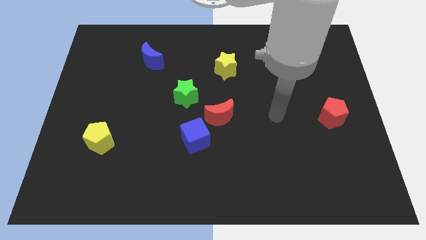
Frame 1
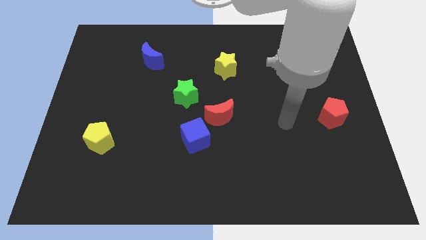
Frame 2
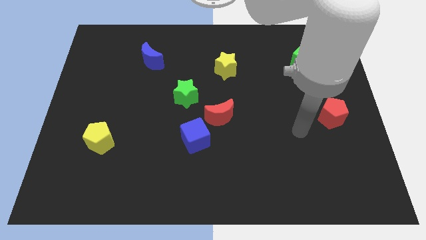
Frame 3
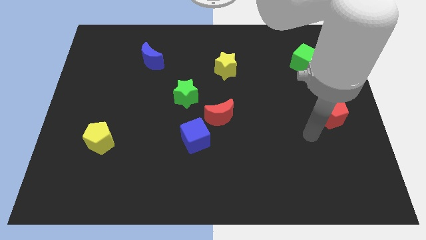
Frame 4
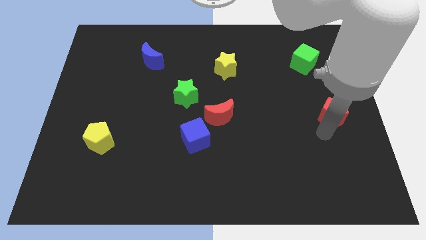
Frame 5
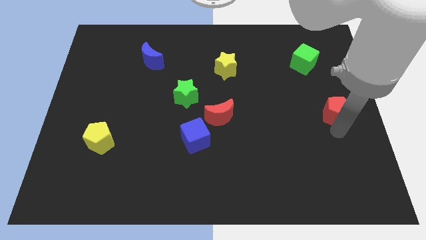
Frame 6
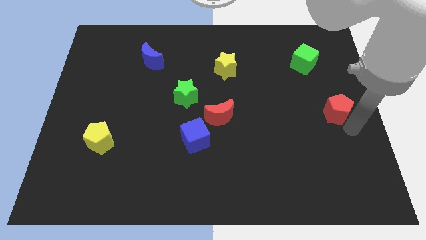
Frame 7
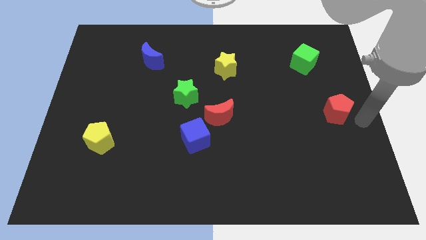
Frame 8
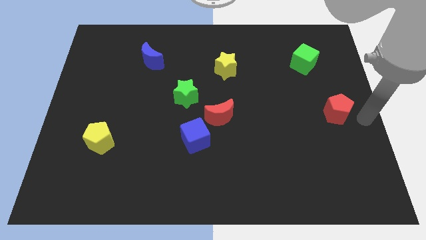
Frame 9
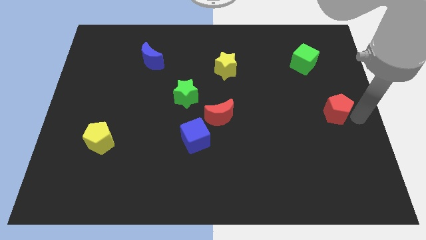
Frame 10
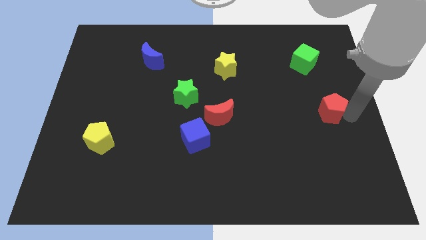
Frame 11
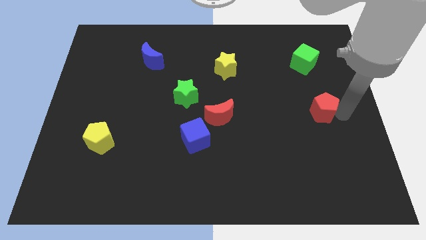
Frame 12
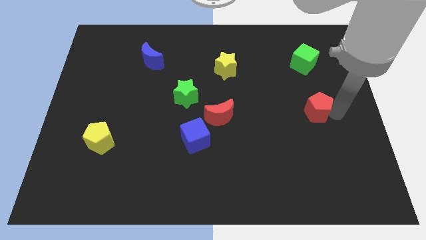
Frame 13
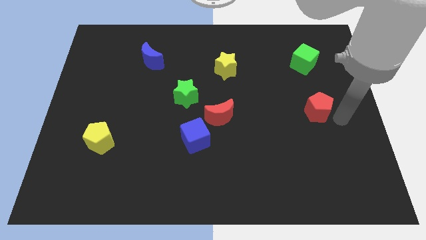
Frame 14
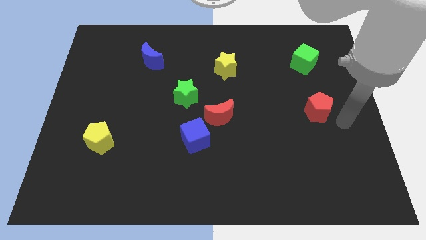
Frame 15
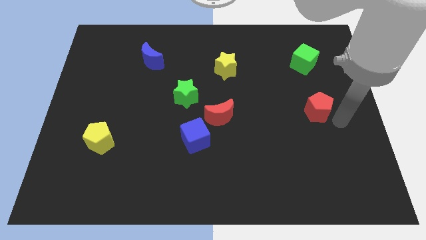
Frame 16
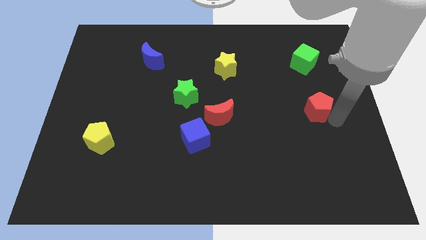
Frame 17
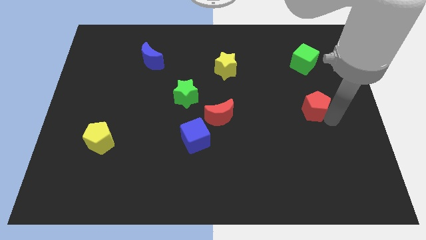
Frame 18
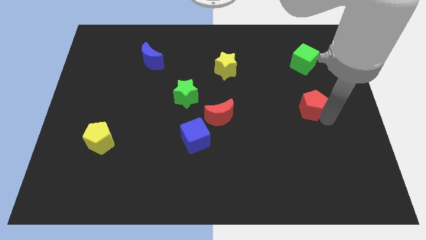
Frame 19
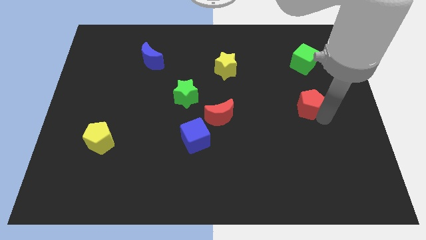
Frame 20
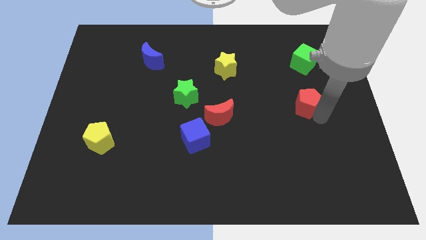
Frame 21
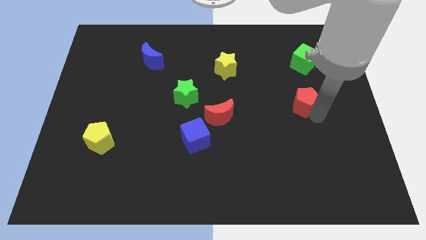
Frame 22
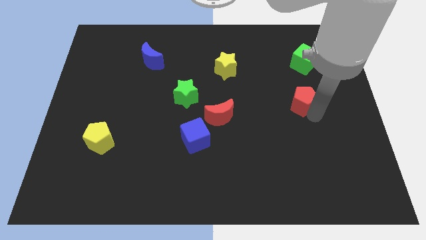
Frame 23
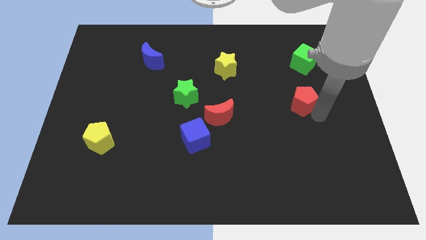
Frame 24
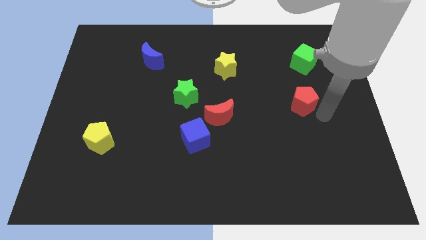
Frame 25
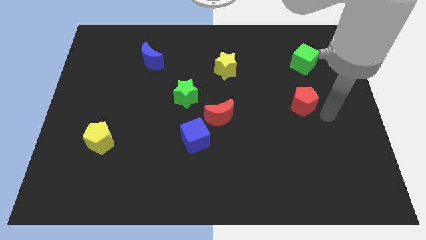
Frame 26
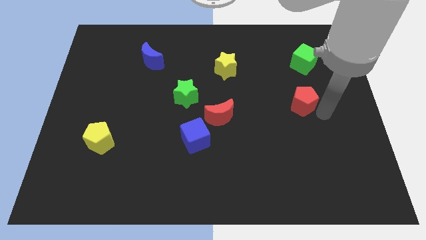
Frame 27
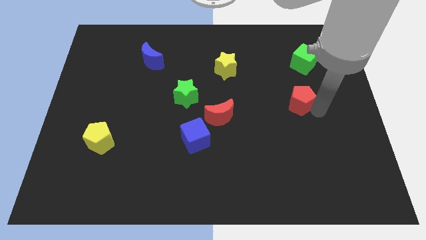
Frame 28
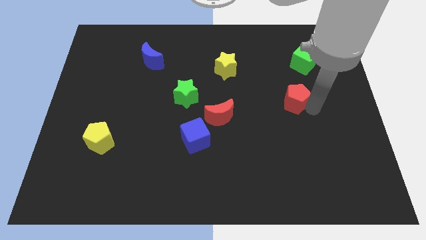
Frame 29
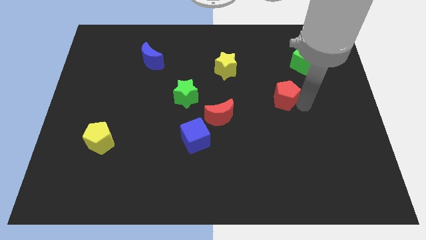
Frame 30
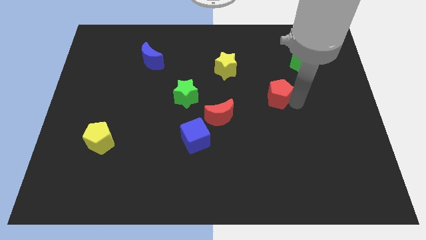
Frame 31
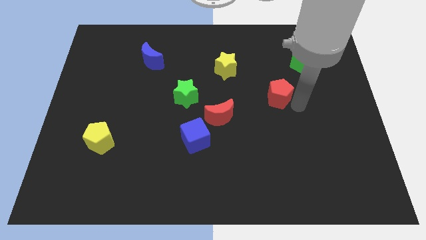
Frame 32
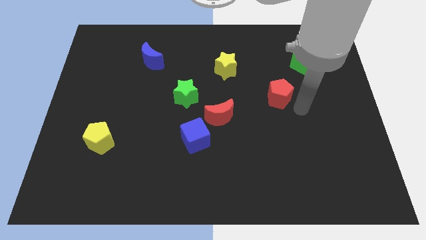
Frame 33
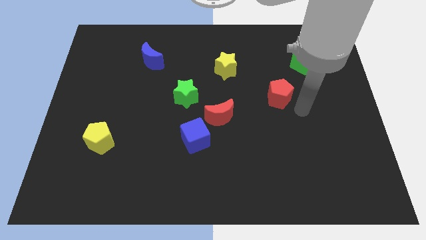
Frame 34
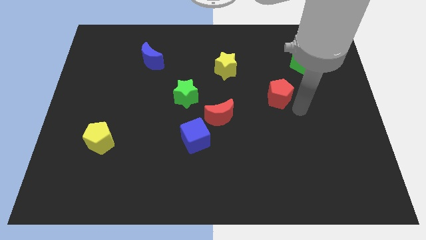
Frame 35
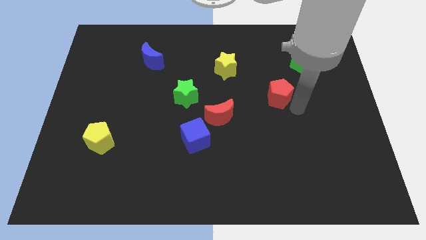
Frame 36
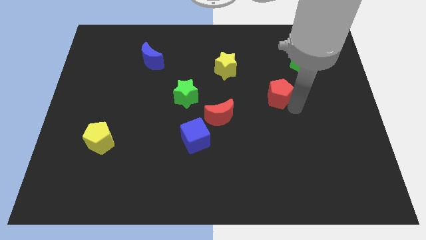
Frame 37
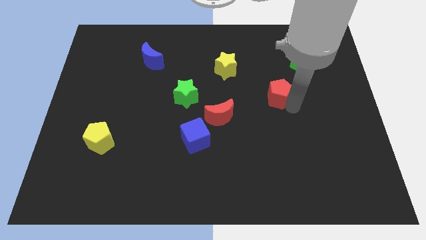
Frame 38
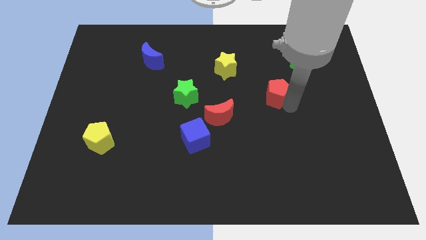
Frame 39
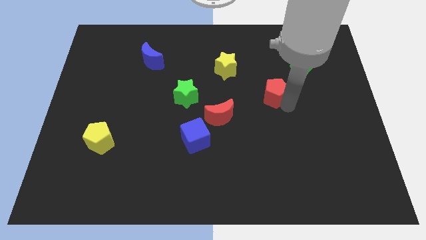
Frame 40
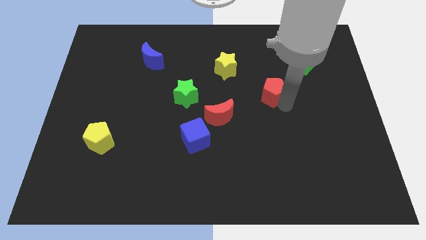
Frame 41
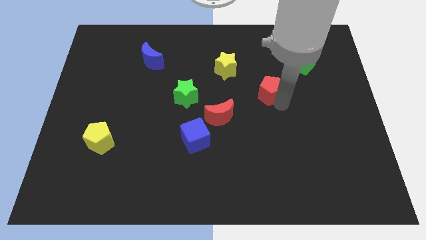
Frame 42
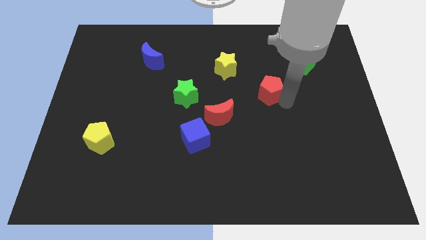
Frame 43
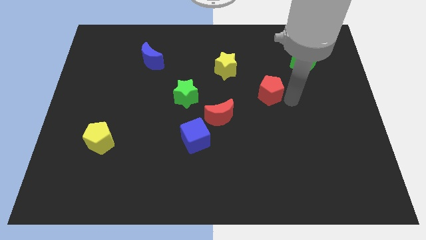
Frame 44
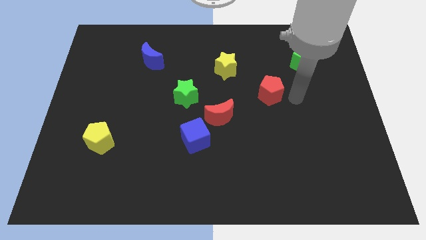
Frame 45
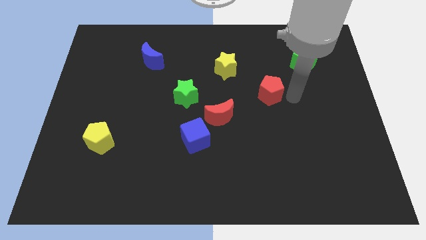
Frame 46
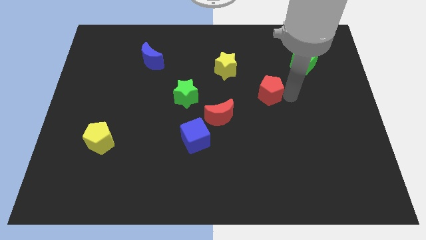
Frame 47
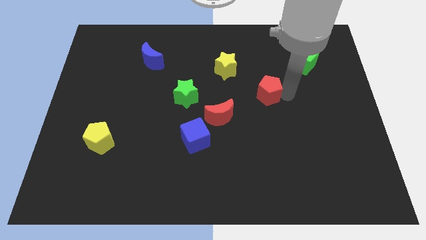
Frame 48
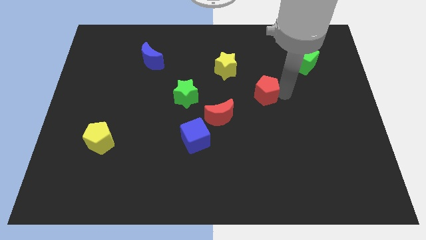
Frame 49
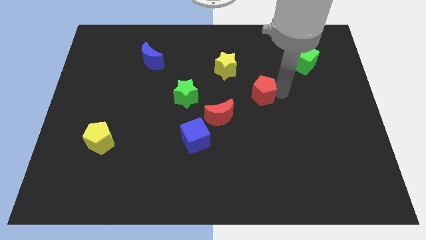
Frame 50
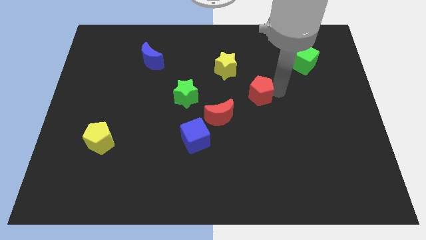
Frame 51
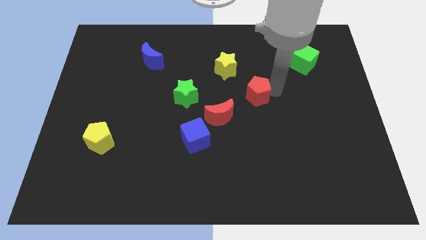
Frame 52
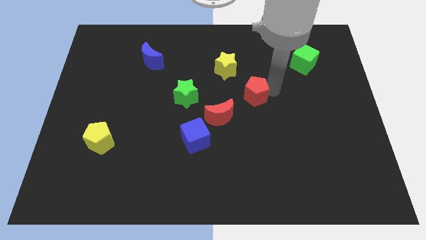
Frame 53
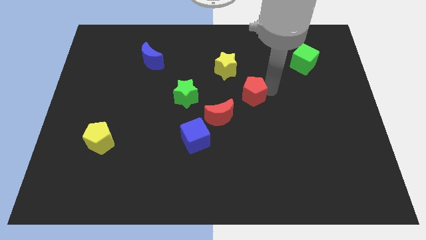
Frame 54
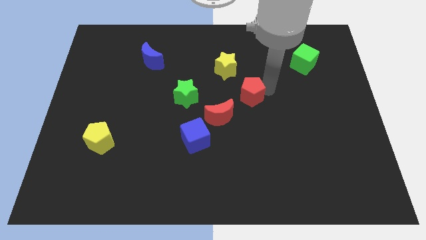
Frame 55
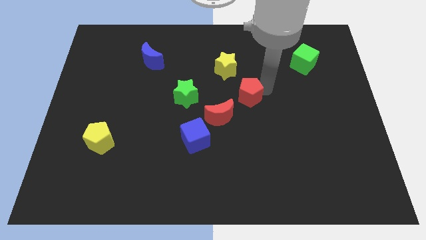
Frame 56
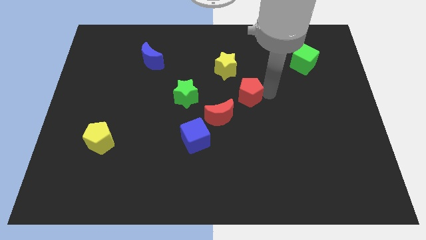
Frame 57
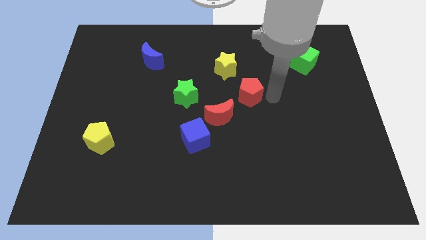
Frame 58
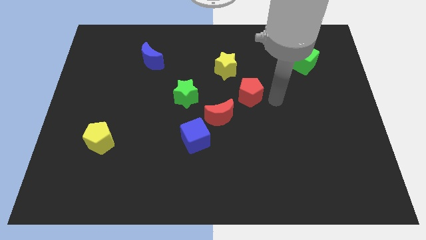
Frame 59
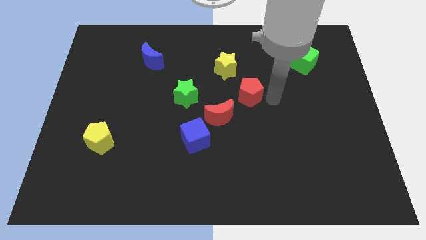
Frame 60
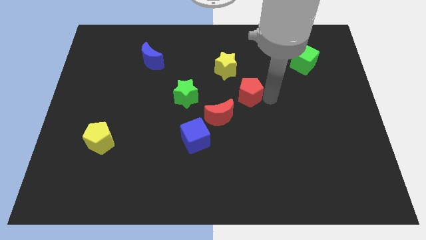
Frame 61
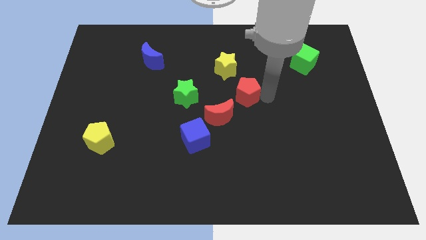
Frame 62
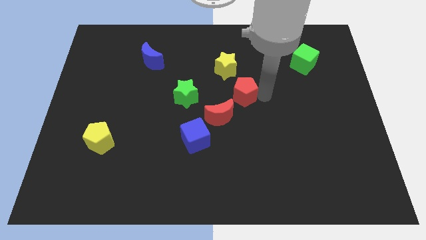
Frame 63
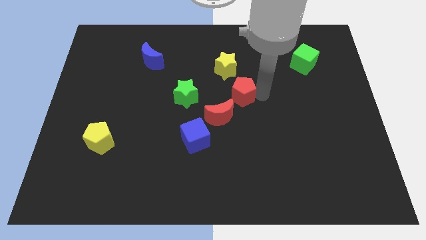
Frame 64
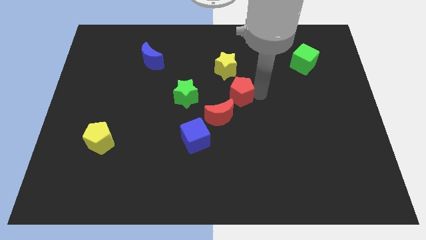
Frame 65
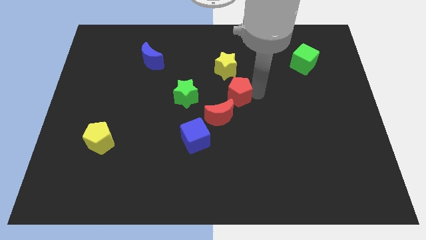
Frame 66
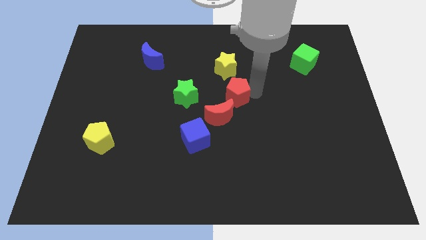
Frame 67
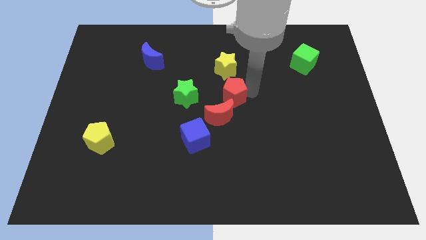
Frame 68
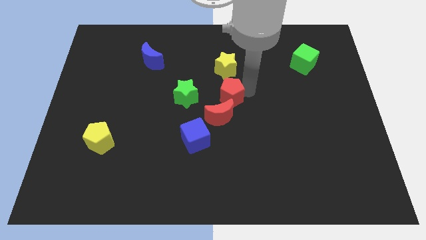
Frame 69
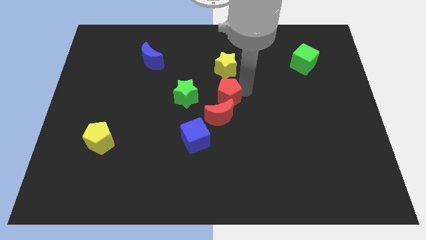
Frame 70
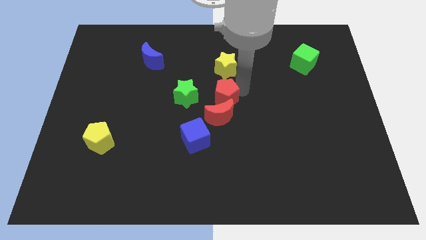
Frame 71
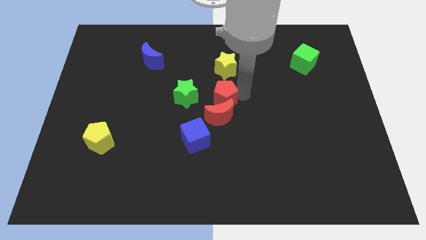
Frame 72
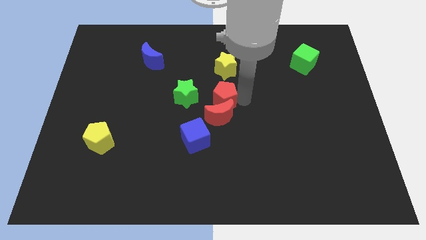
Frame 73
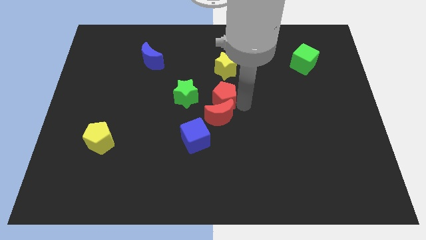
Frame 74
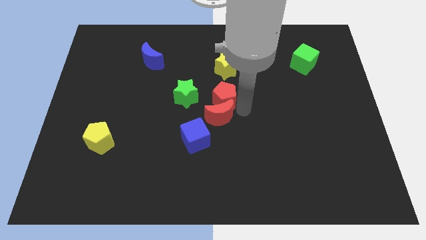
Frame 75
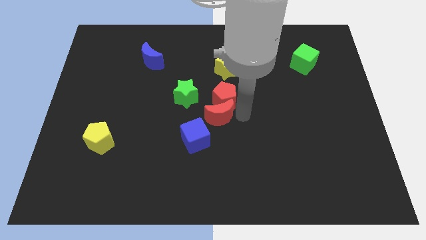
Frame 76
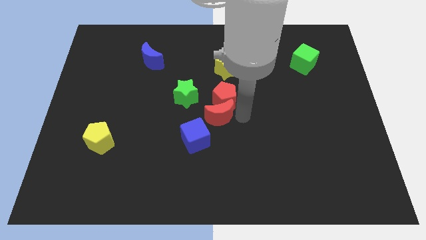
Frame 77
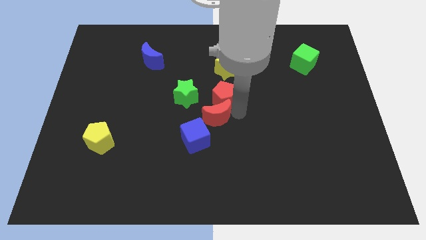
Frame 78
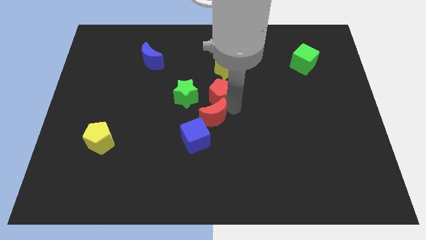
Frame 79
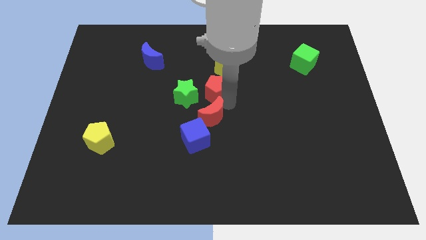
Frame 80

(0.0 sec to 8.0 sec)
move the red pentagon to the bottom left of the yellow star

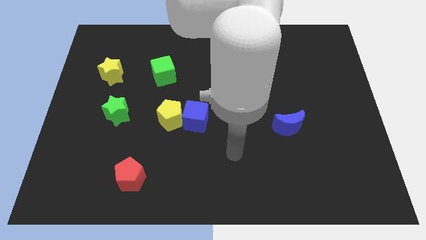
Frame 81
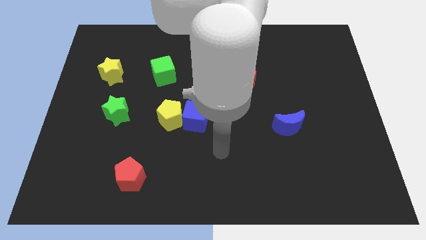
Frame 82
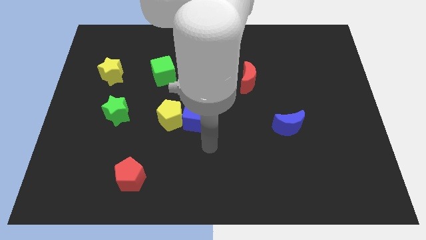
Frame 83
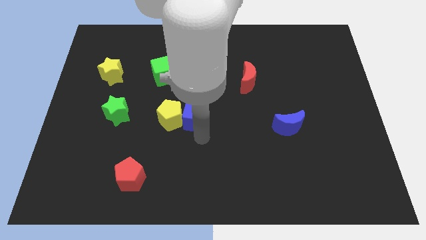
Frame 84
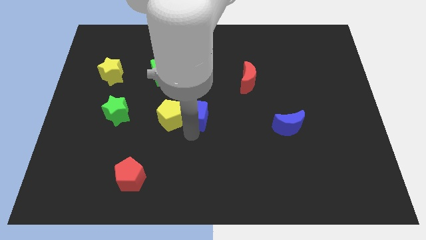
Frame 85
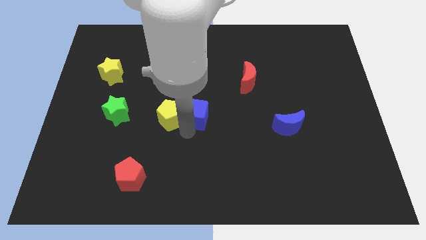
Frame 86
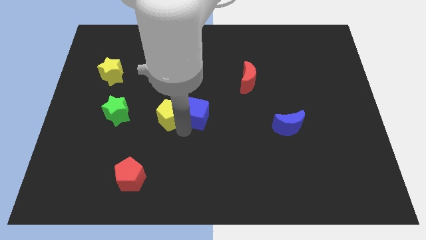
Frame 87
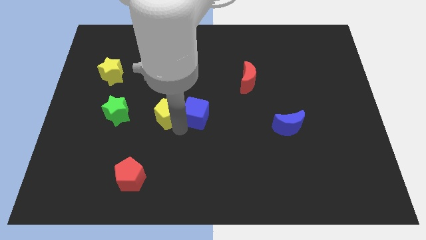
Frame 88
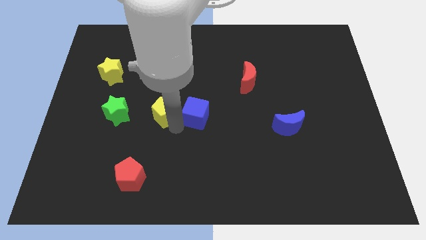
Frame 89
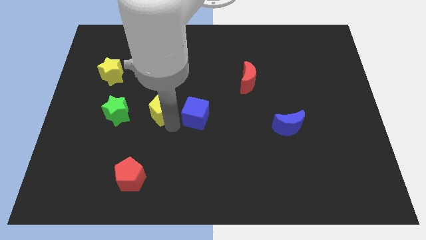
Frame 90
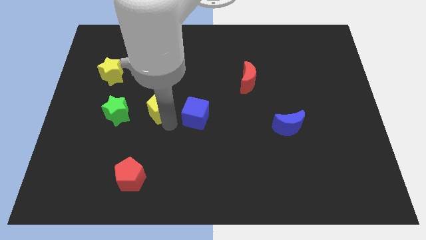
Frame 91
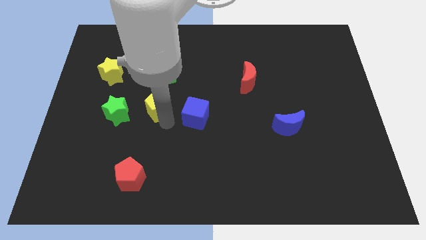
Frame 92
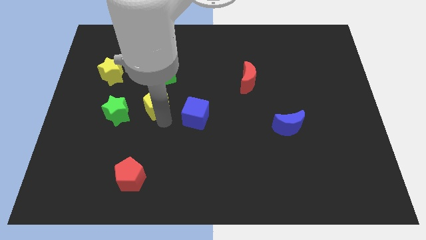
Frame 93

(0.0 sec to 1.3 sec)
put the yellow pentagon diagonally up and to the right of the green star
